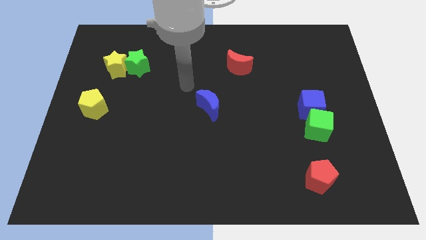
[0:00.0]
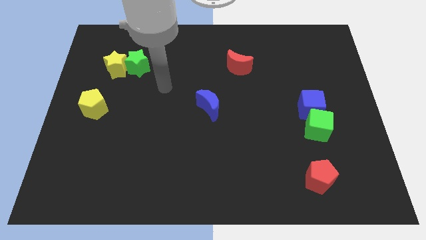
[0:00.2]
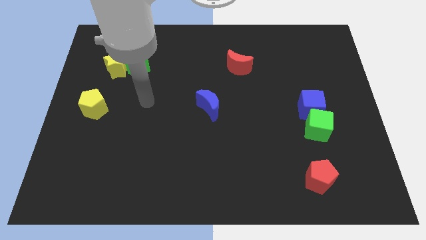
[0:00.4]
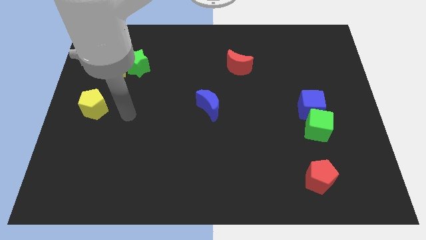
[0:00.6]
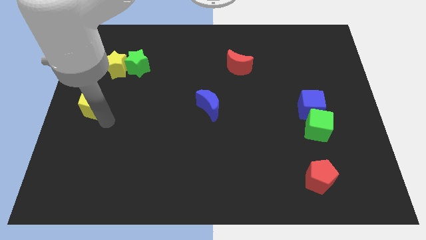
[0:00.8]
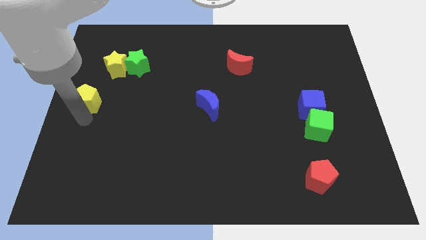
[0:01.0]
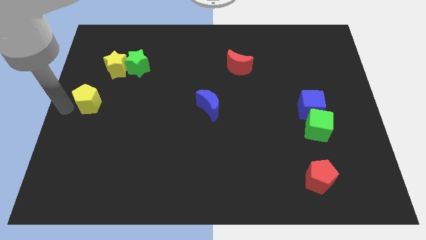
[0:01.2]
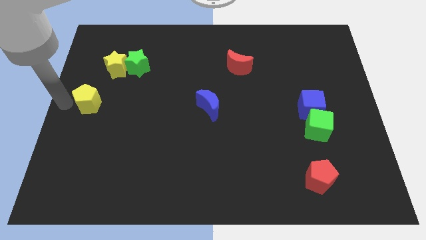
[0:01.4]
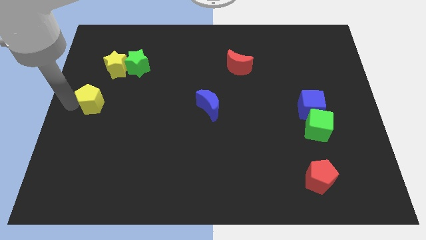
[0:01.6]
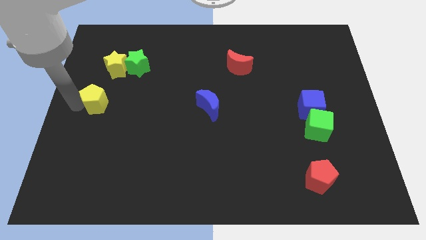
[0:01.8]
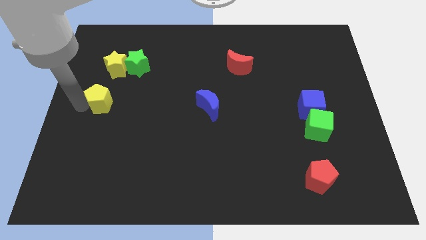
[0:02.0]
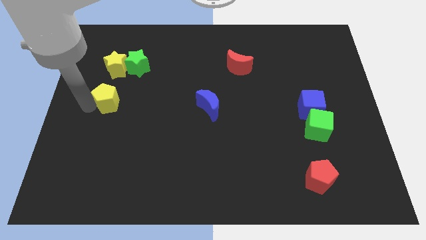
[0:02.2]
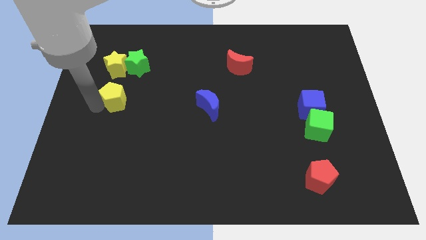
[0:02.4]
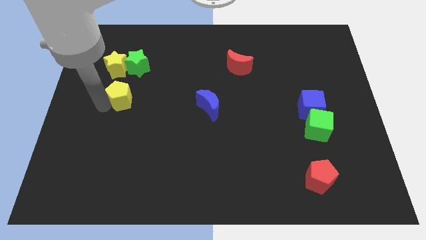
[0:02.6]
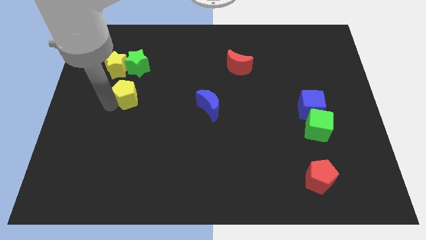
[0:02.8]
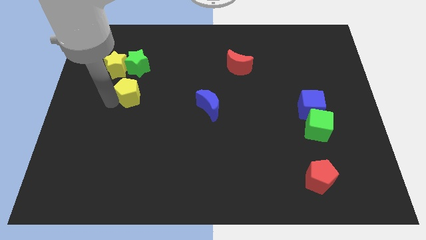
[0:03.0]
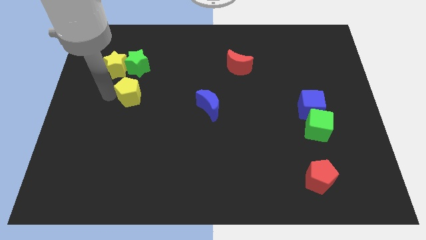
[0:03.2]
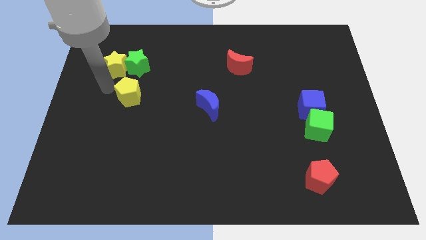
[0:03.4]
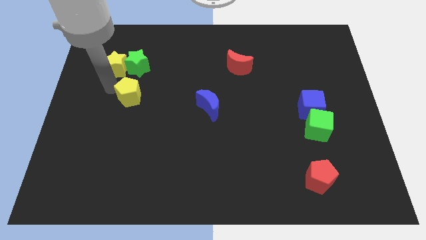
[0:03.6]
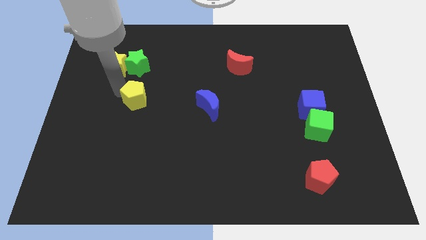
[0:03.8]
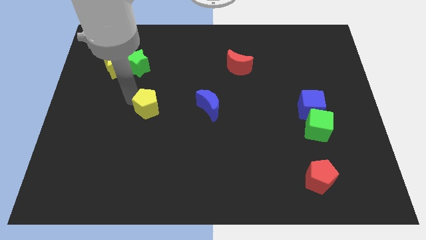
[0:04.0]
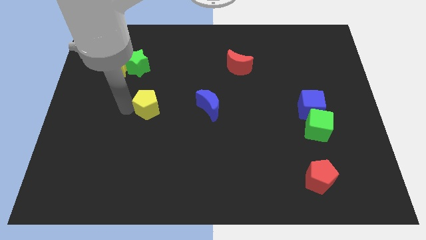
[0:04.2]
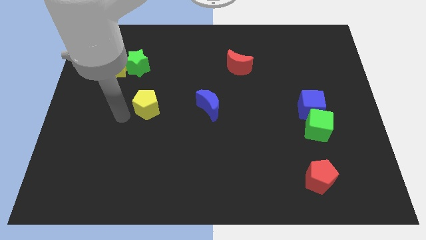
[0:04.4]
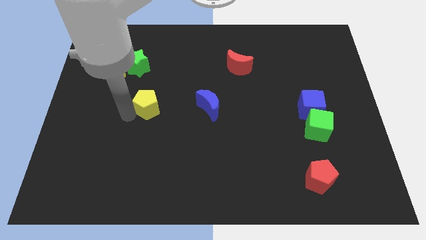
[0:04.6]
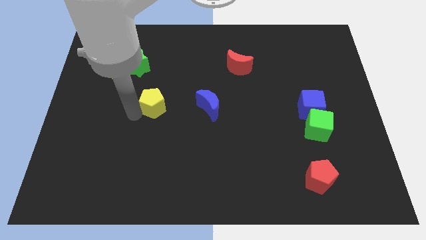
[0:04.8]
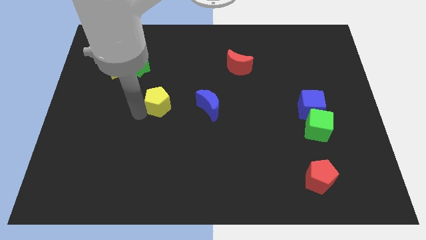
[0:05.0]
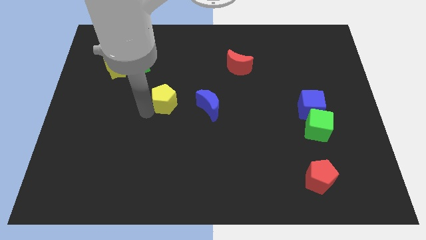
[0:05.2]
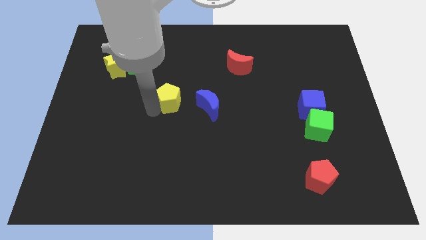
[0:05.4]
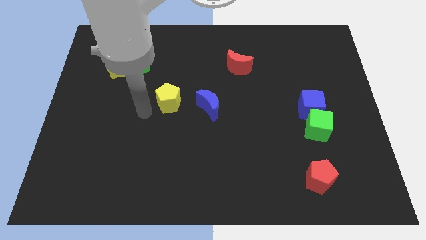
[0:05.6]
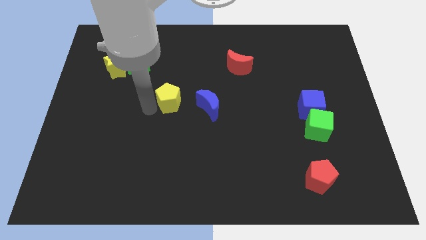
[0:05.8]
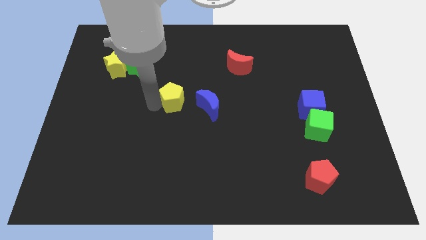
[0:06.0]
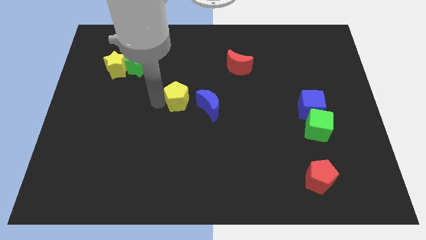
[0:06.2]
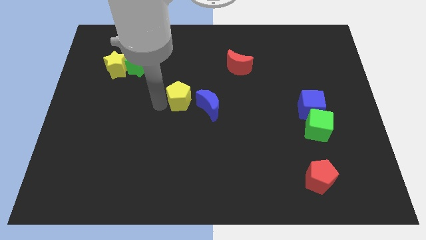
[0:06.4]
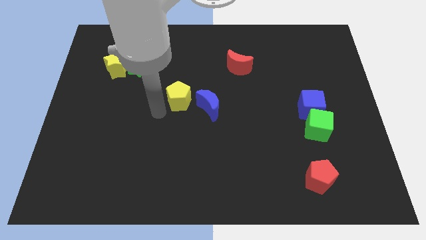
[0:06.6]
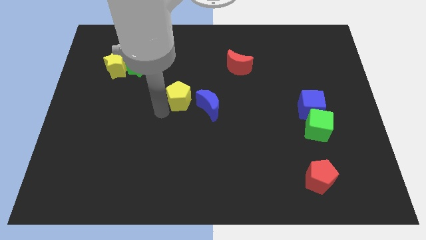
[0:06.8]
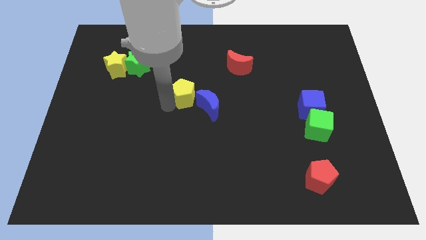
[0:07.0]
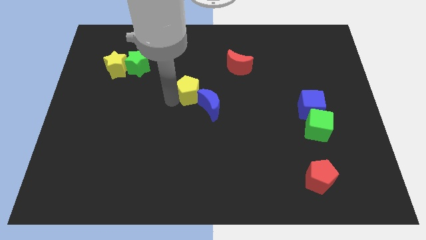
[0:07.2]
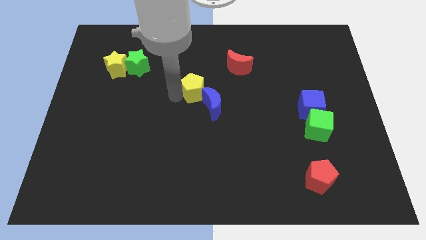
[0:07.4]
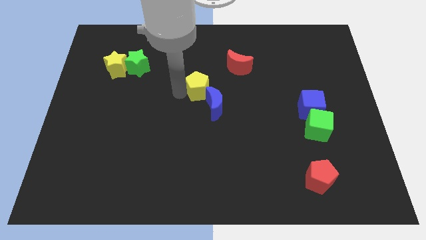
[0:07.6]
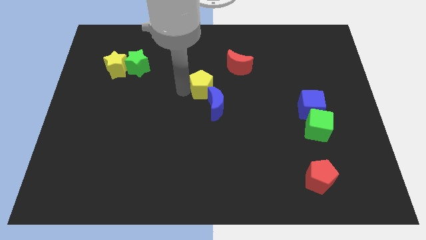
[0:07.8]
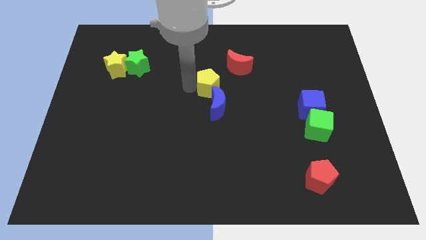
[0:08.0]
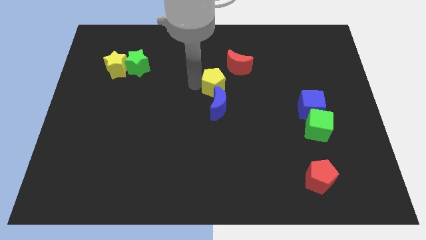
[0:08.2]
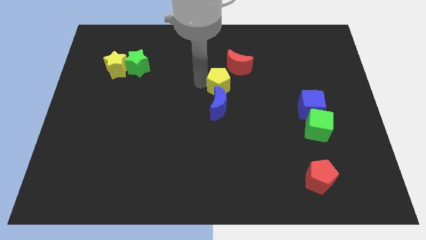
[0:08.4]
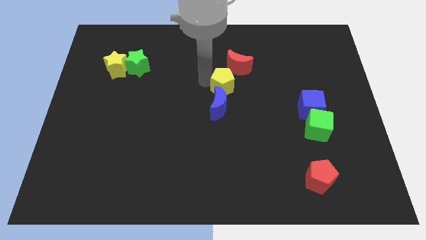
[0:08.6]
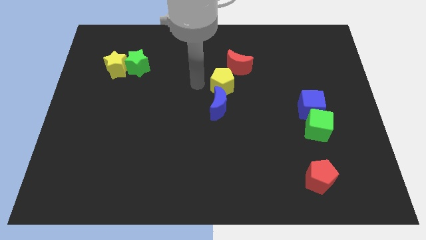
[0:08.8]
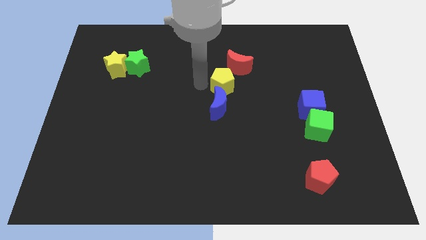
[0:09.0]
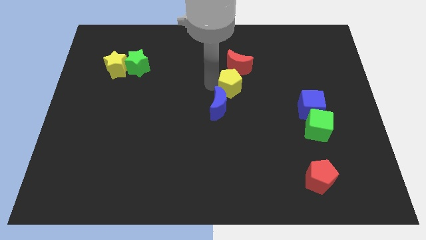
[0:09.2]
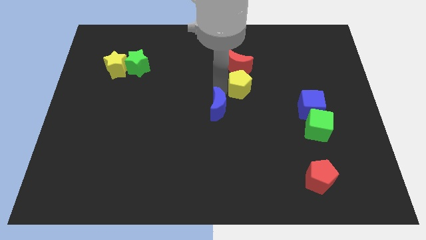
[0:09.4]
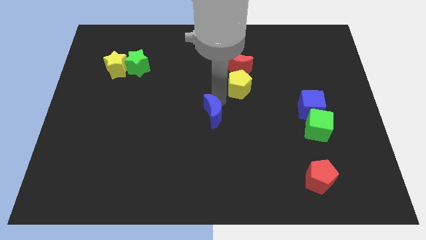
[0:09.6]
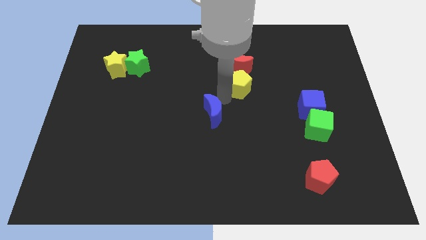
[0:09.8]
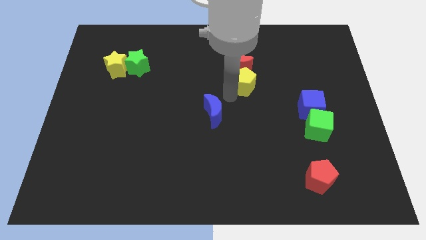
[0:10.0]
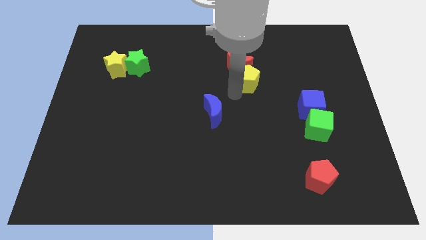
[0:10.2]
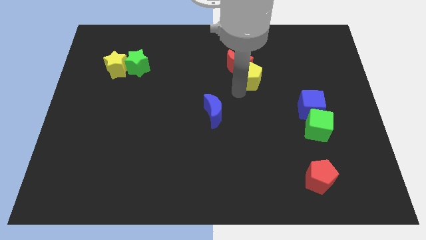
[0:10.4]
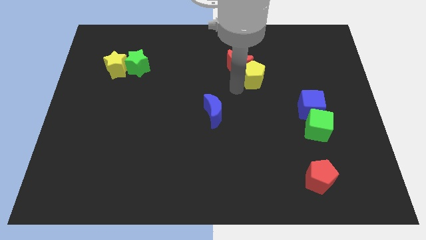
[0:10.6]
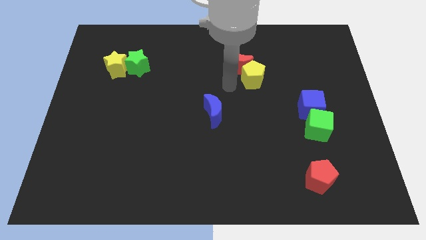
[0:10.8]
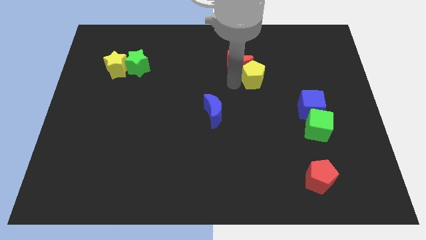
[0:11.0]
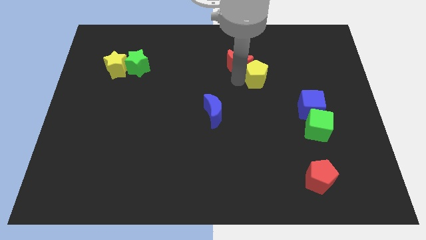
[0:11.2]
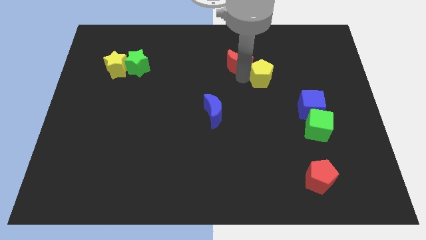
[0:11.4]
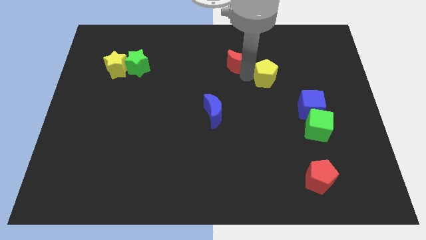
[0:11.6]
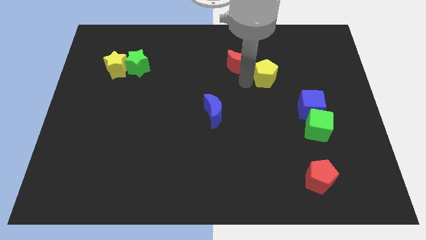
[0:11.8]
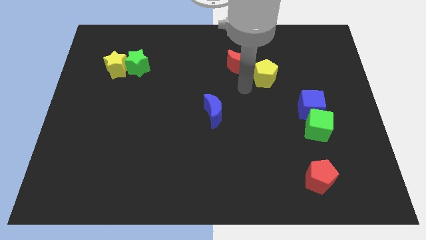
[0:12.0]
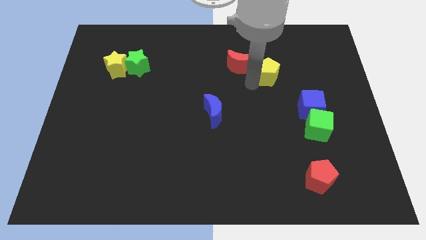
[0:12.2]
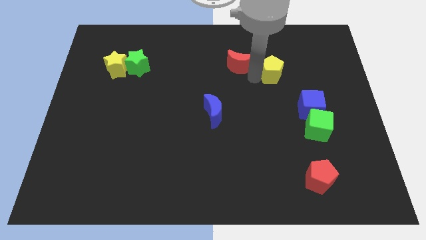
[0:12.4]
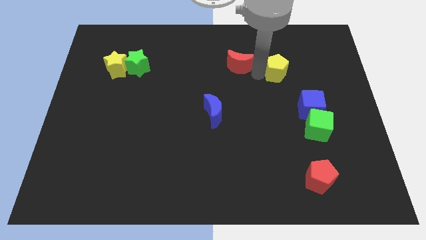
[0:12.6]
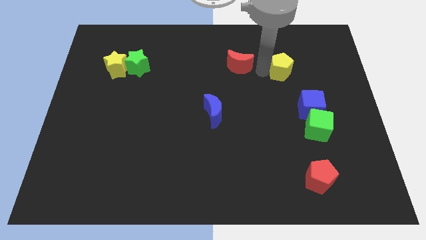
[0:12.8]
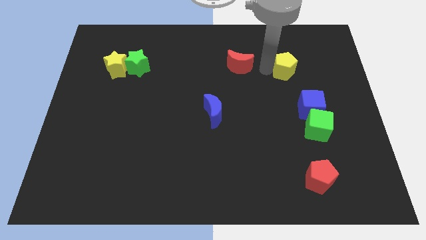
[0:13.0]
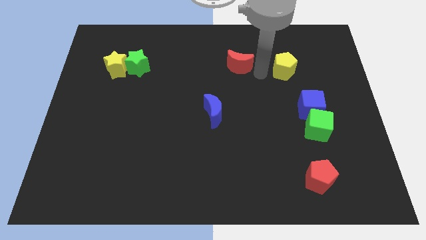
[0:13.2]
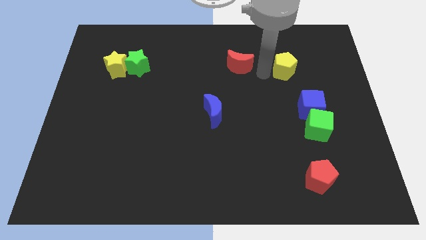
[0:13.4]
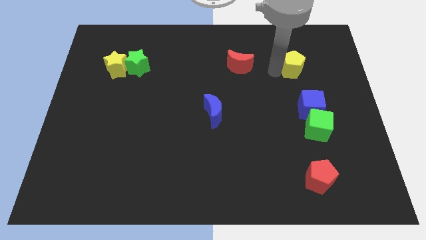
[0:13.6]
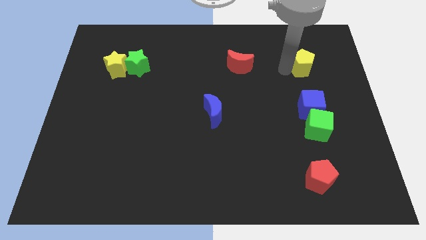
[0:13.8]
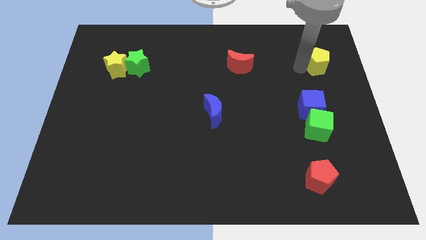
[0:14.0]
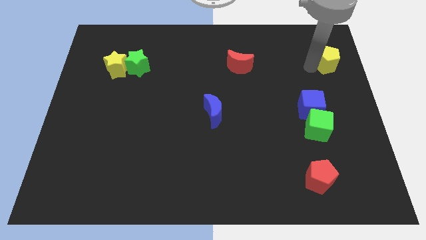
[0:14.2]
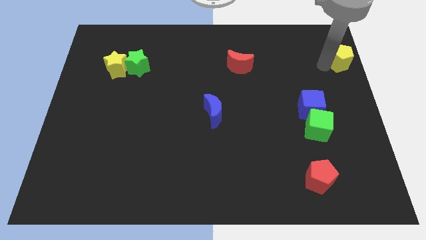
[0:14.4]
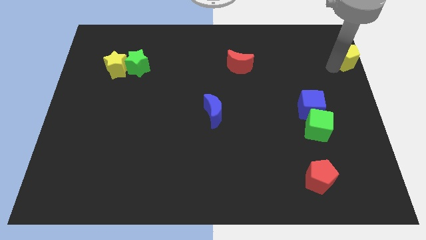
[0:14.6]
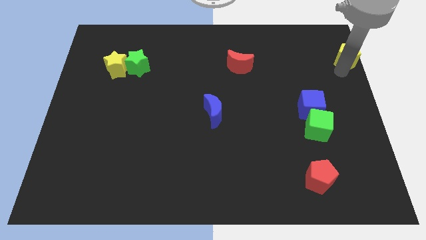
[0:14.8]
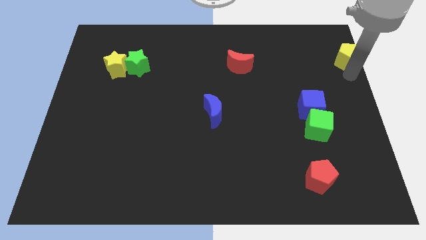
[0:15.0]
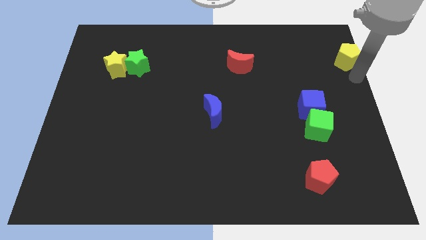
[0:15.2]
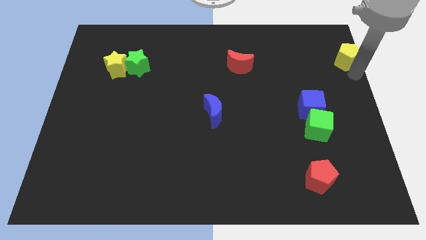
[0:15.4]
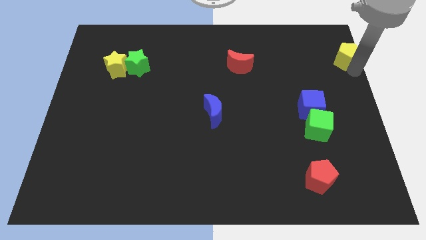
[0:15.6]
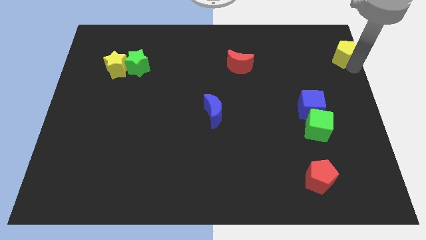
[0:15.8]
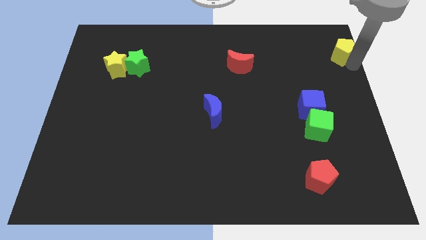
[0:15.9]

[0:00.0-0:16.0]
put the yellow pentagon to the top right corner
